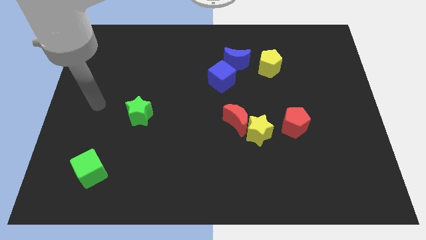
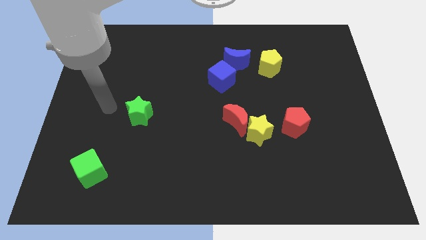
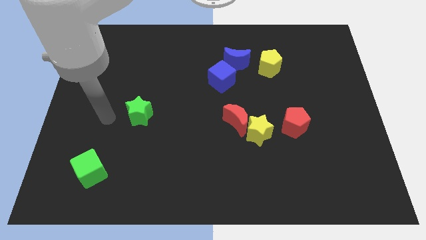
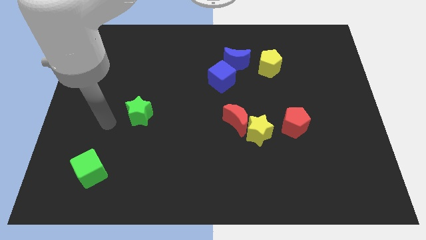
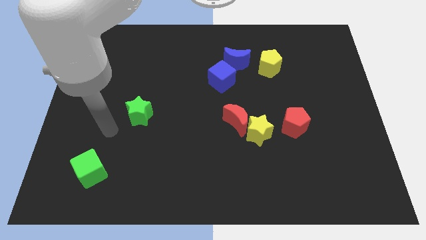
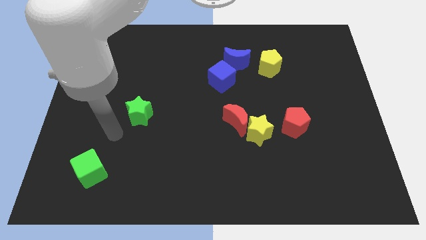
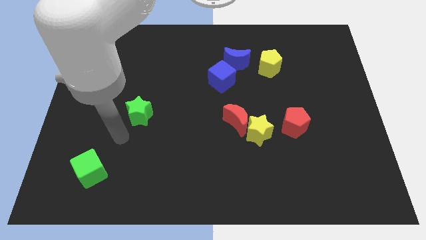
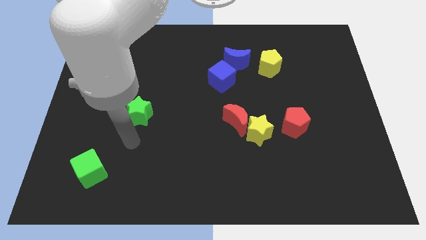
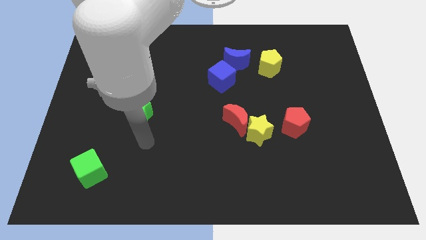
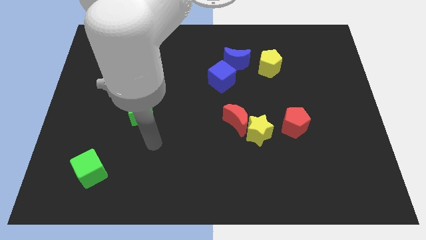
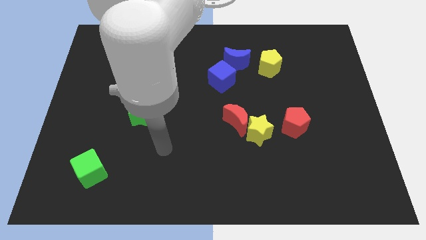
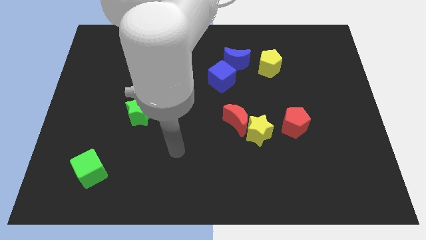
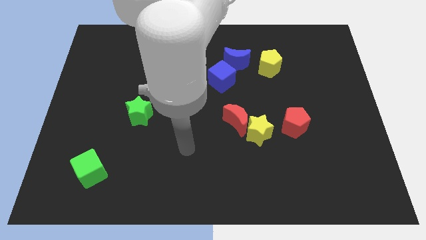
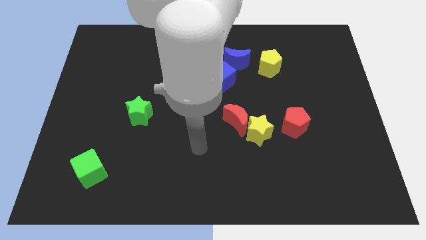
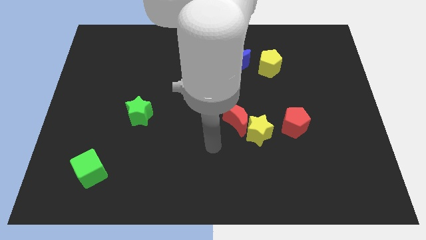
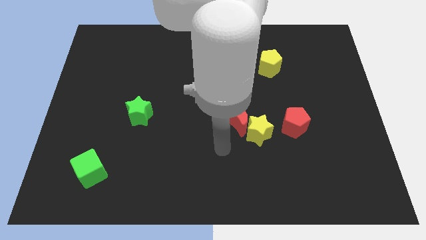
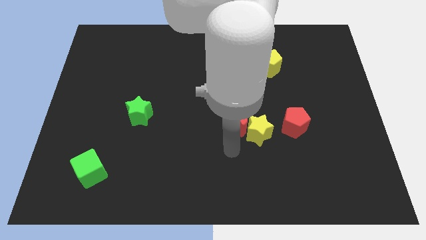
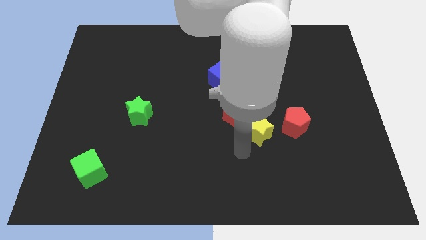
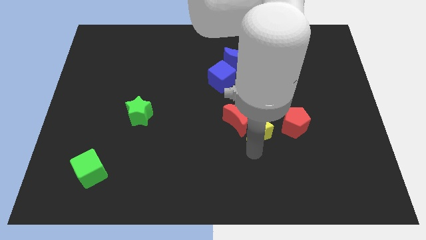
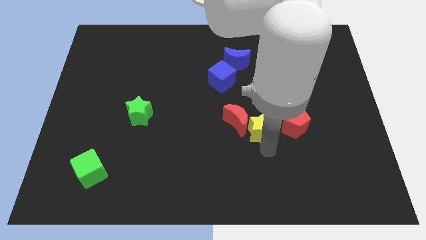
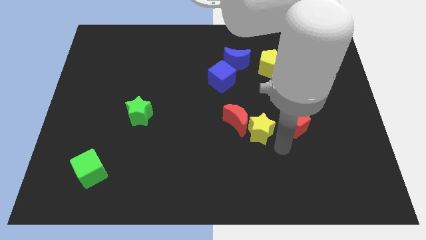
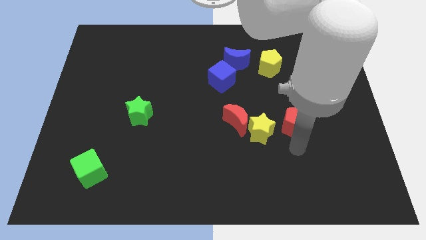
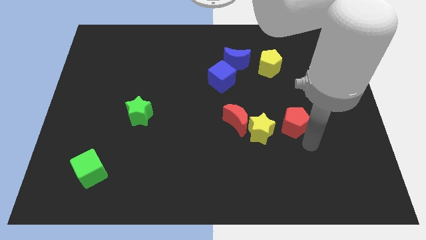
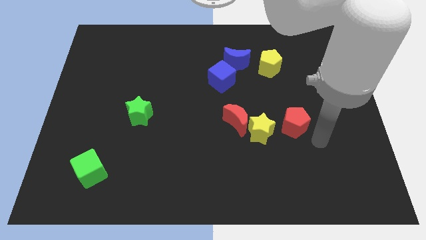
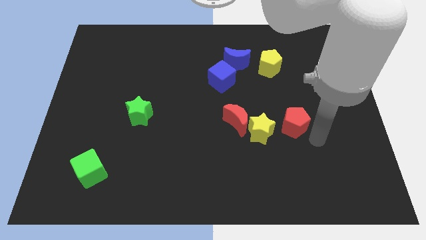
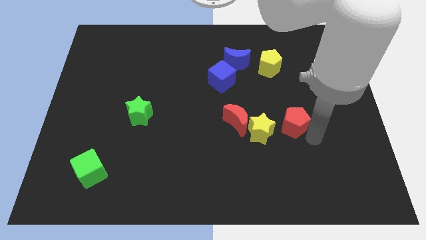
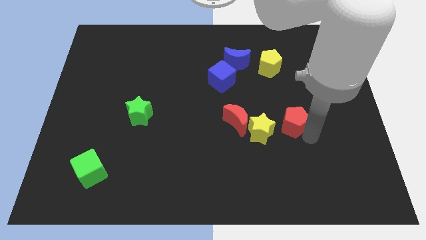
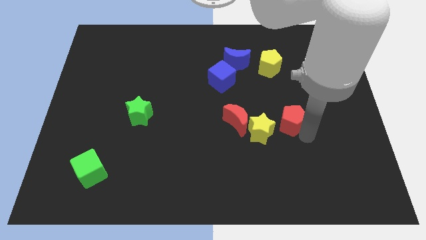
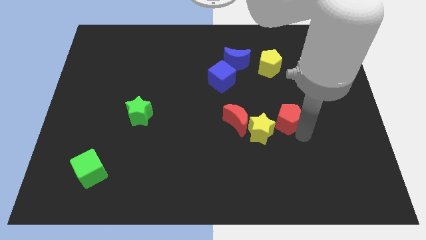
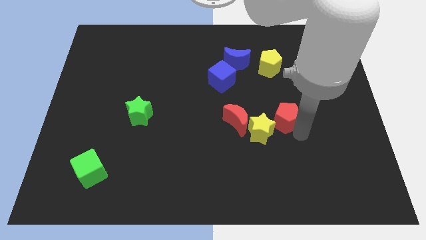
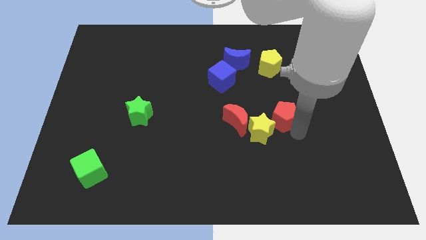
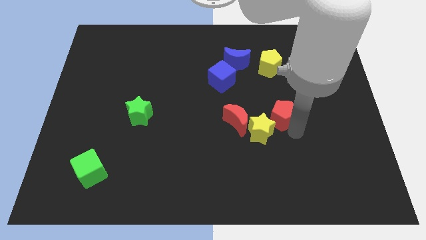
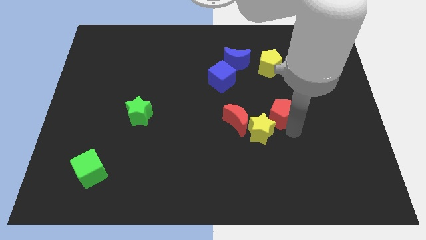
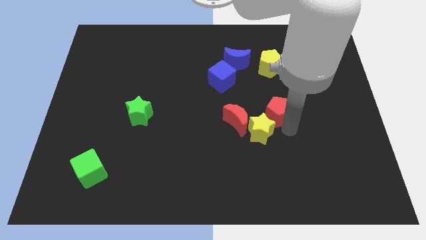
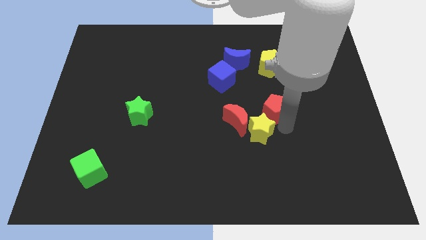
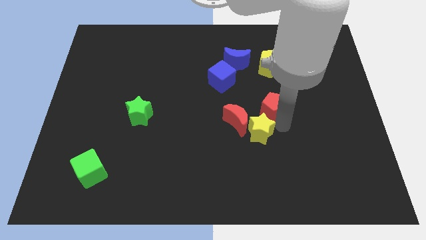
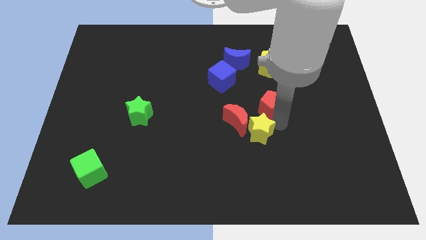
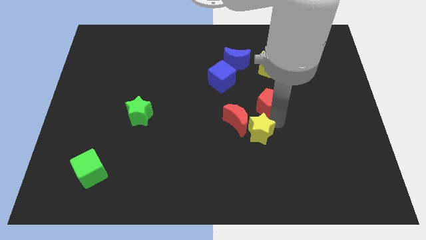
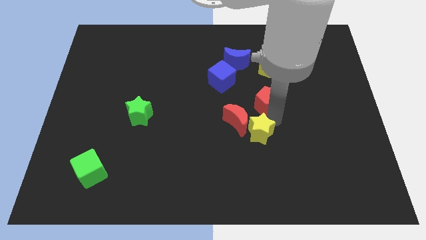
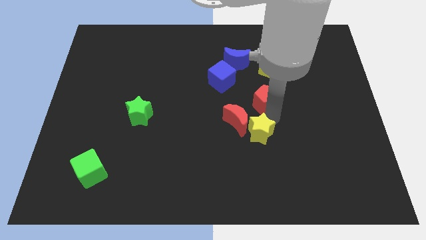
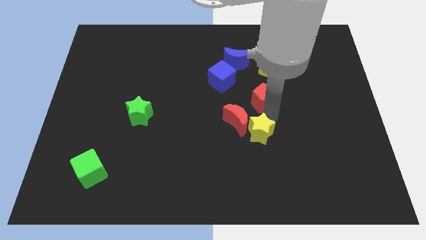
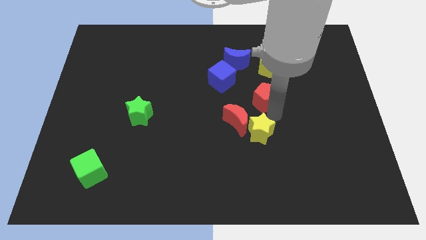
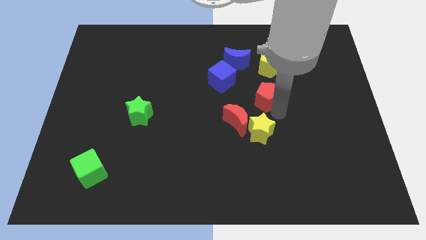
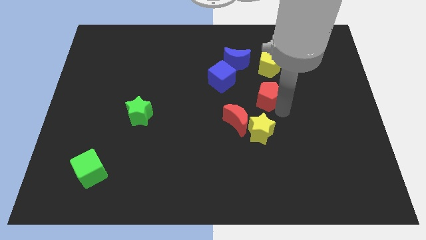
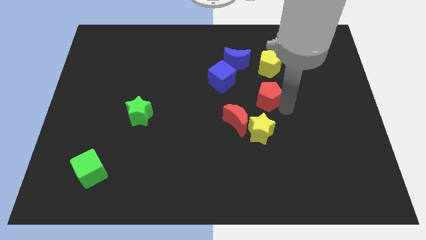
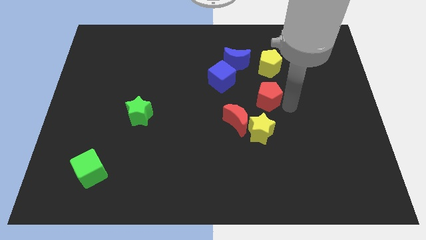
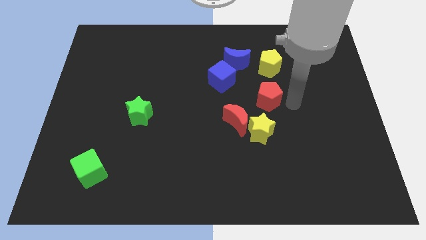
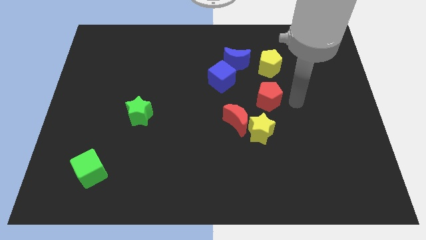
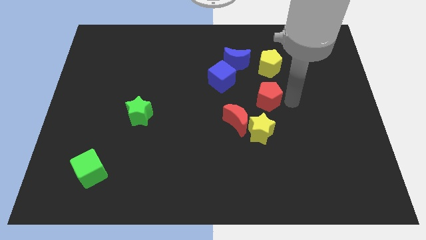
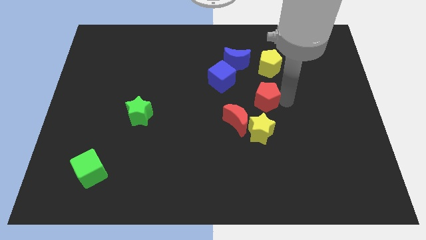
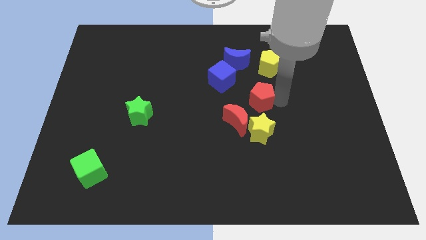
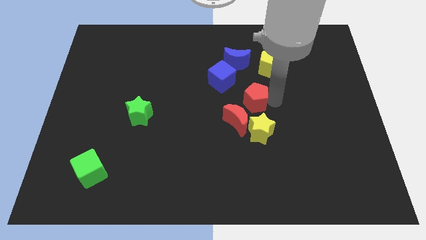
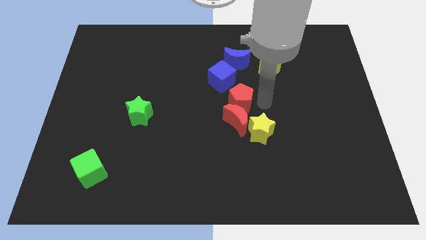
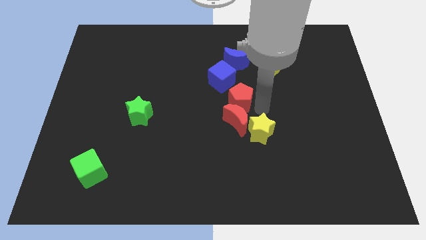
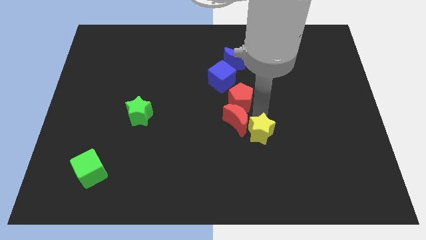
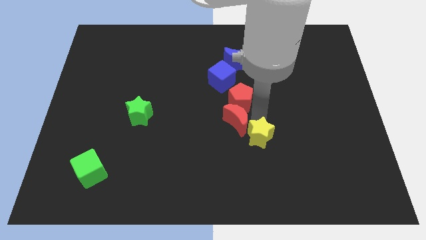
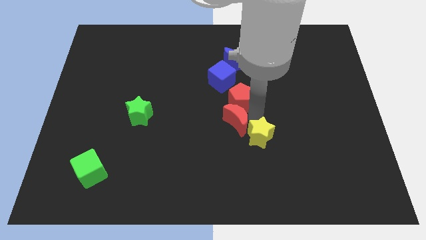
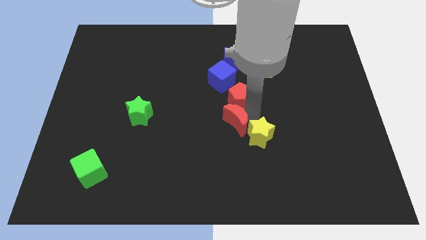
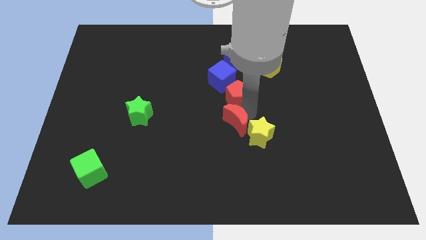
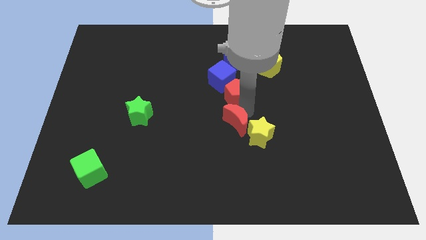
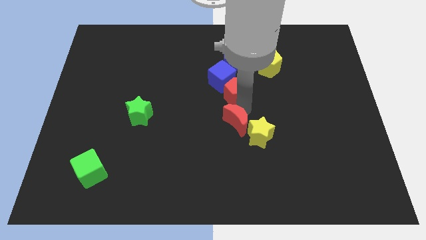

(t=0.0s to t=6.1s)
push the red pentagon next to the blue cube

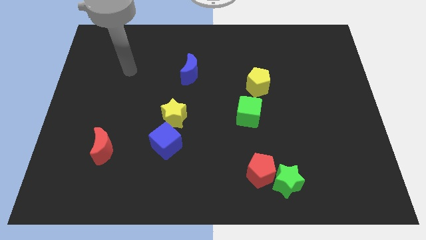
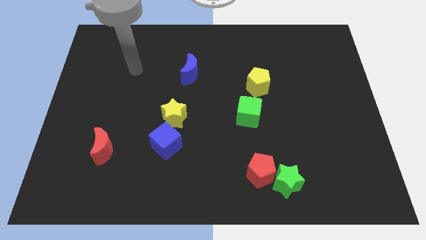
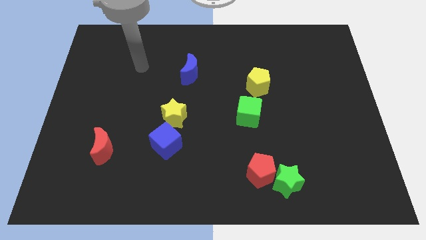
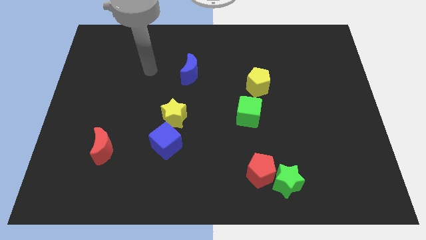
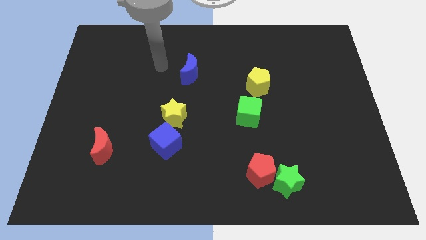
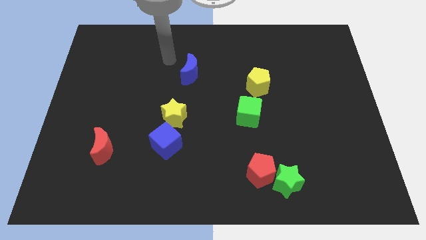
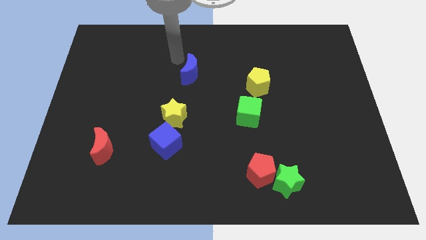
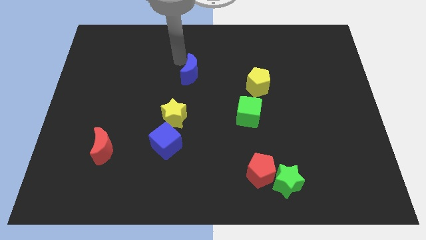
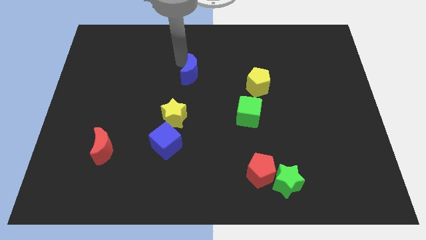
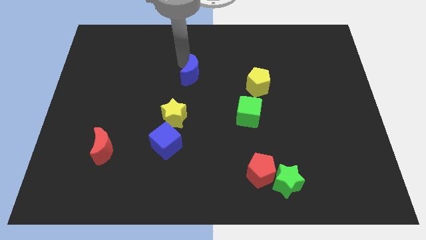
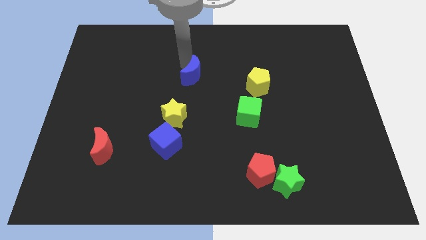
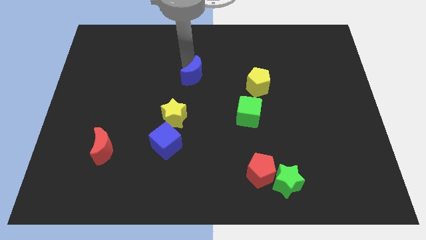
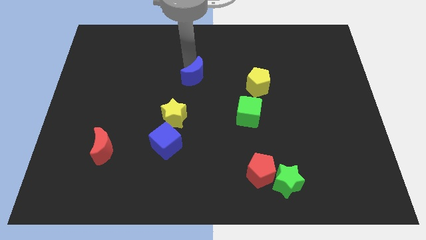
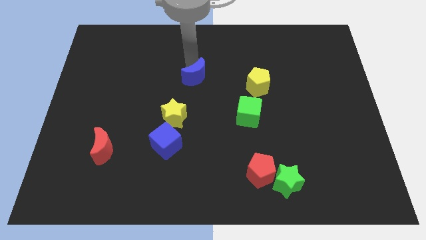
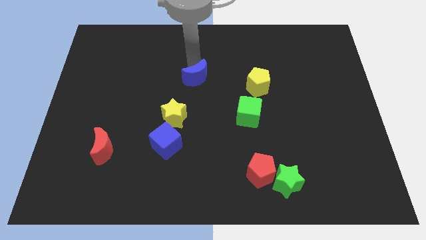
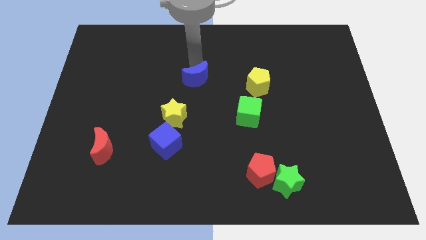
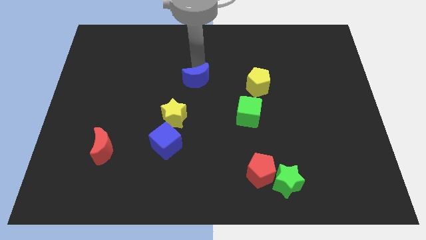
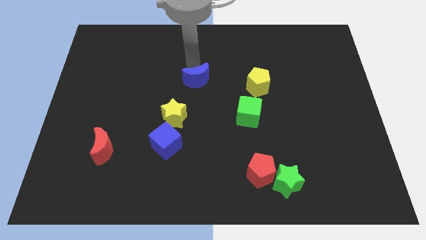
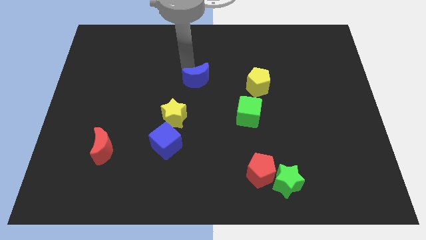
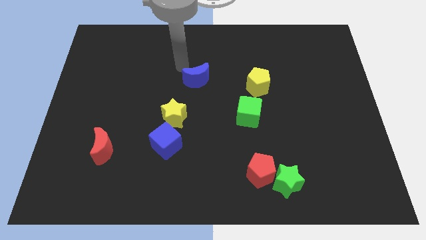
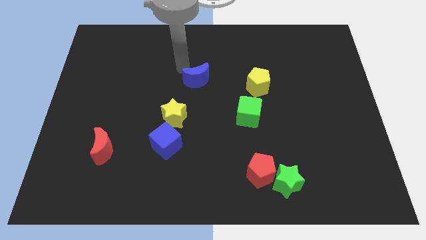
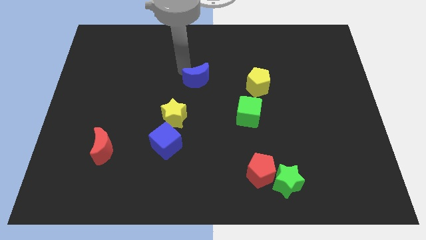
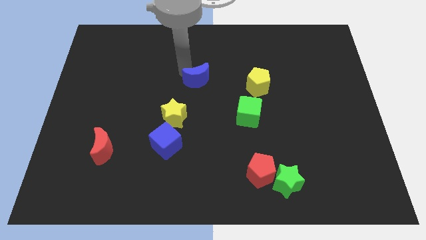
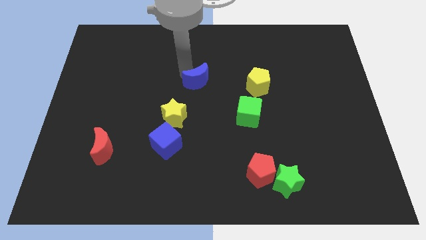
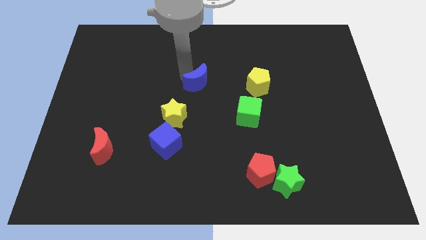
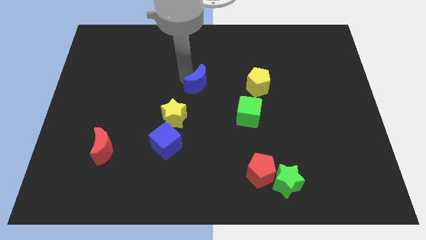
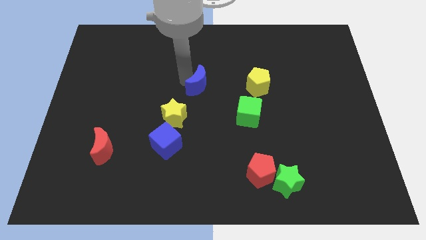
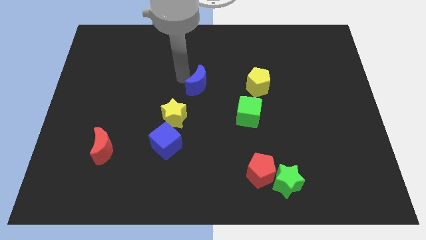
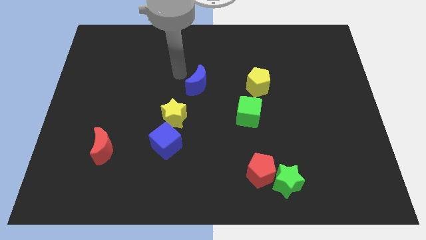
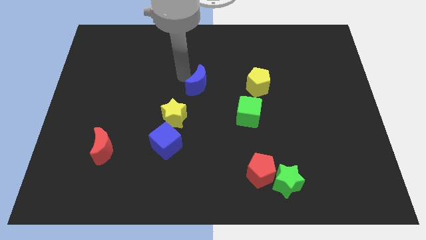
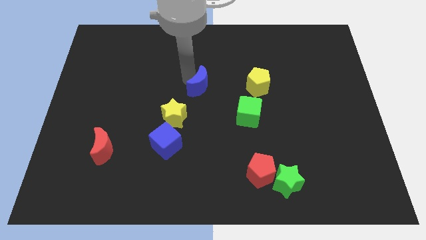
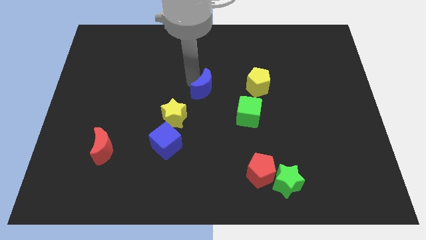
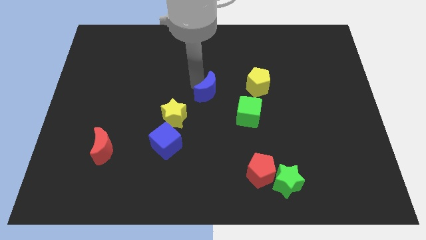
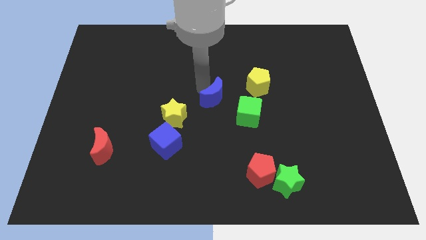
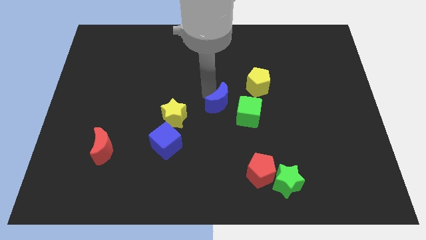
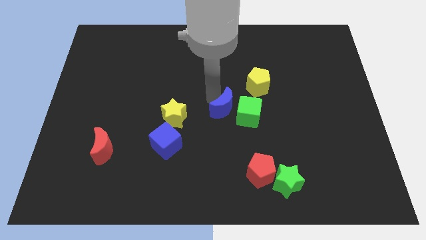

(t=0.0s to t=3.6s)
put the blue moon close to the green cube
